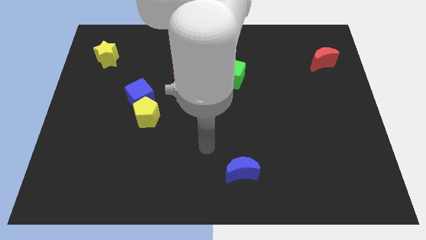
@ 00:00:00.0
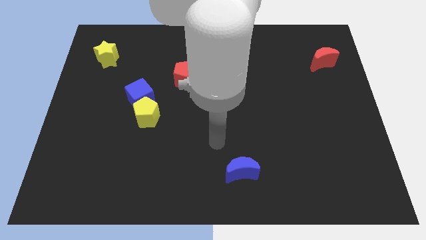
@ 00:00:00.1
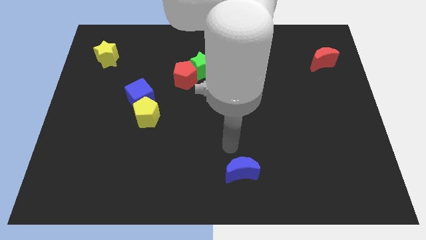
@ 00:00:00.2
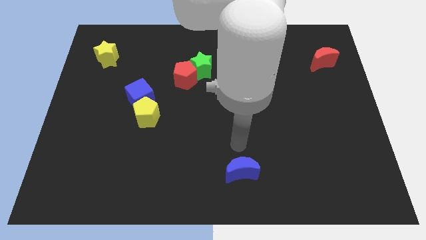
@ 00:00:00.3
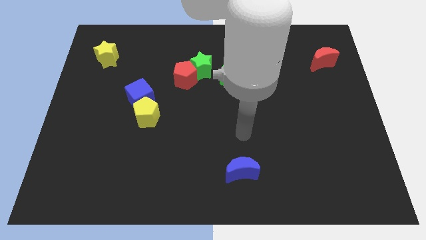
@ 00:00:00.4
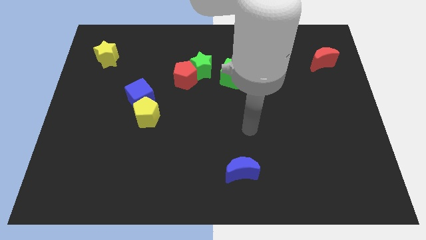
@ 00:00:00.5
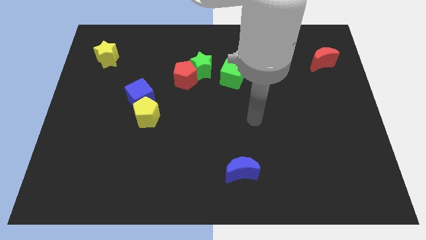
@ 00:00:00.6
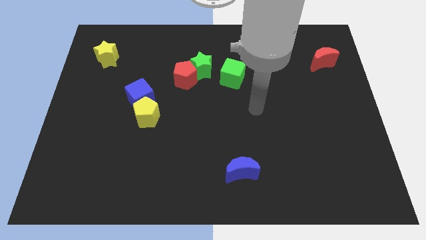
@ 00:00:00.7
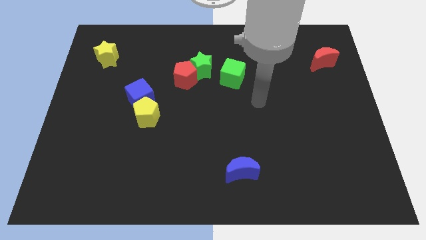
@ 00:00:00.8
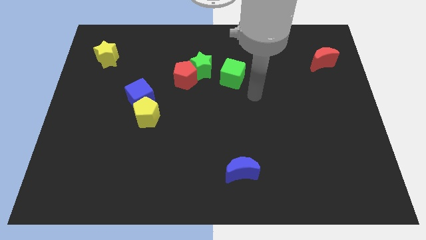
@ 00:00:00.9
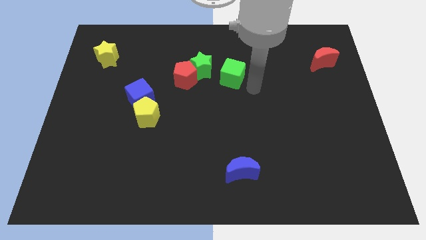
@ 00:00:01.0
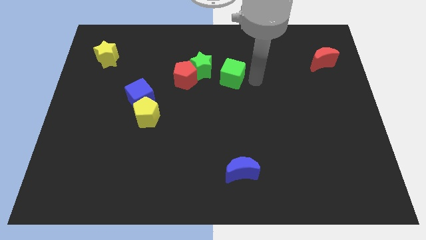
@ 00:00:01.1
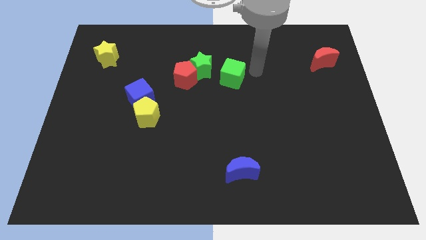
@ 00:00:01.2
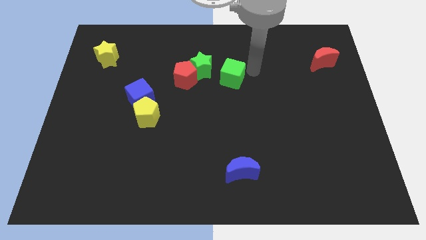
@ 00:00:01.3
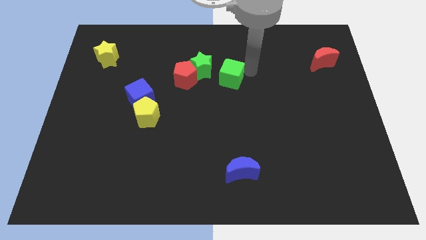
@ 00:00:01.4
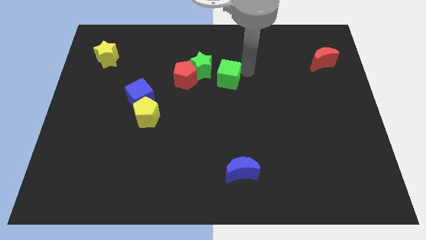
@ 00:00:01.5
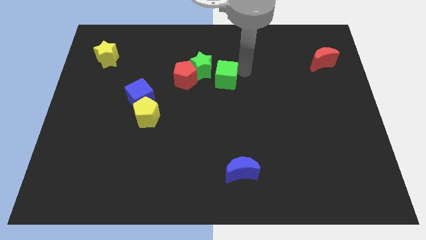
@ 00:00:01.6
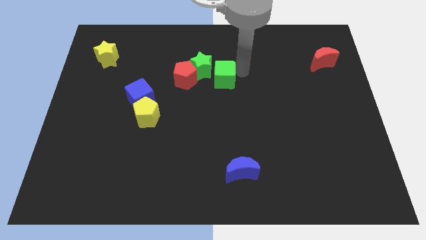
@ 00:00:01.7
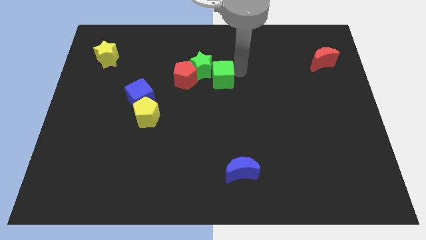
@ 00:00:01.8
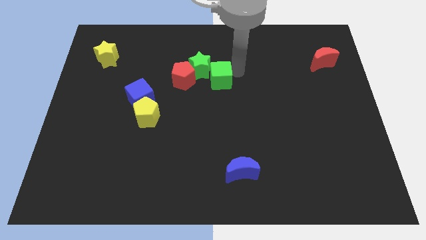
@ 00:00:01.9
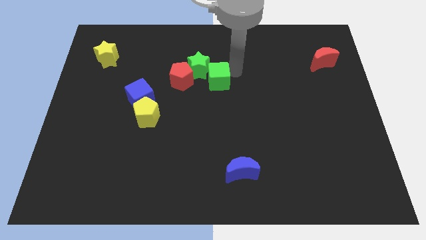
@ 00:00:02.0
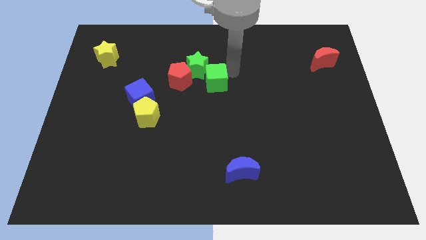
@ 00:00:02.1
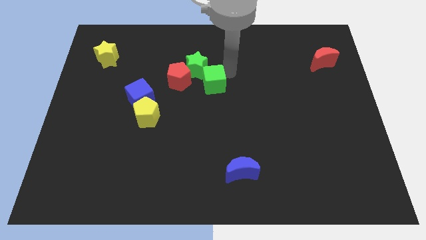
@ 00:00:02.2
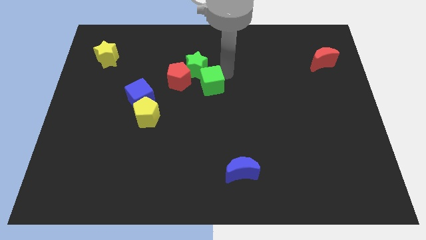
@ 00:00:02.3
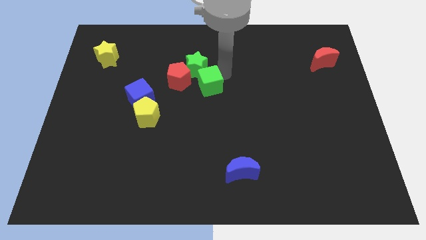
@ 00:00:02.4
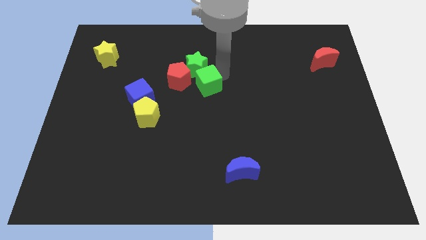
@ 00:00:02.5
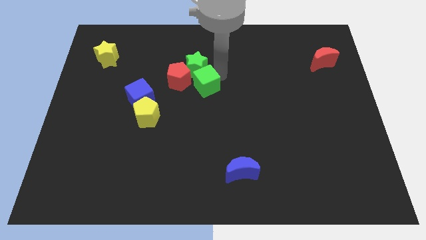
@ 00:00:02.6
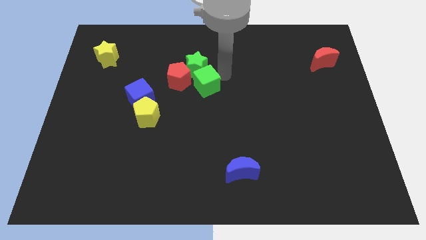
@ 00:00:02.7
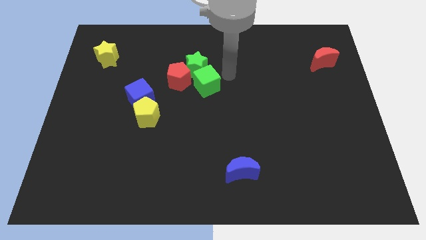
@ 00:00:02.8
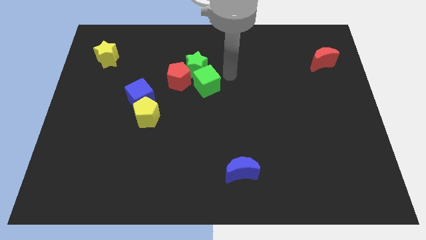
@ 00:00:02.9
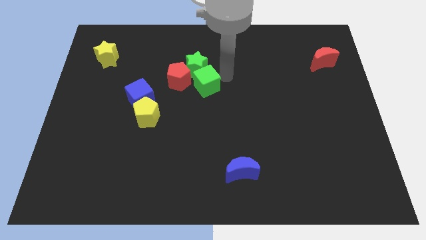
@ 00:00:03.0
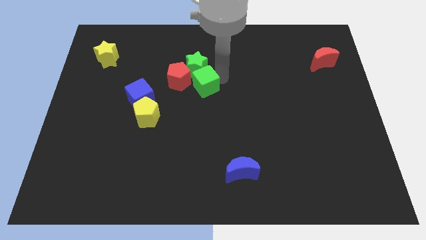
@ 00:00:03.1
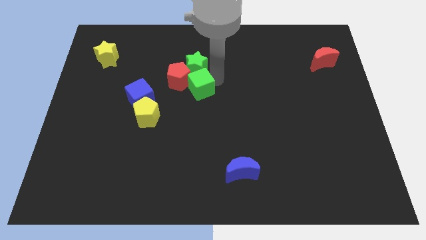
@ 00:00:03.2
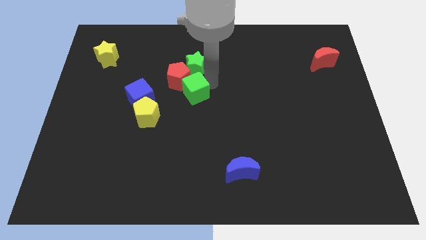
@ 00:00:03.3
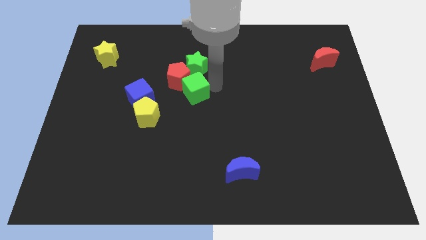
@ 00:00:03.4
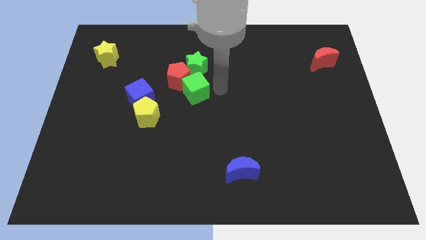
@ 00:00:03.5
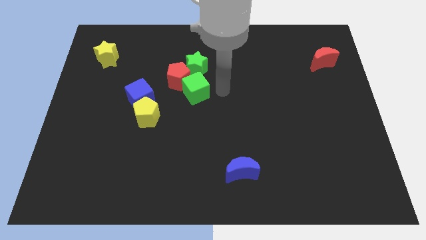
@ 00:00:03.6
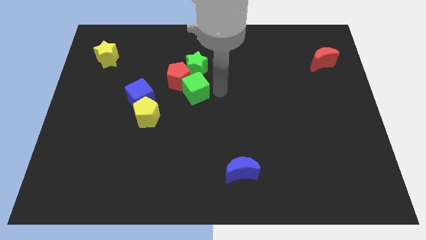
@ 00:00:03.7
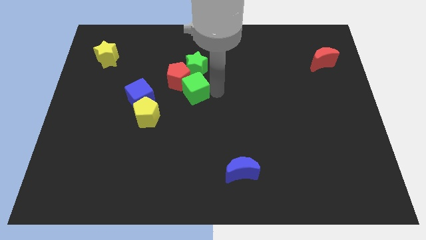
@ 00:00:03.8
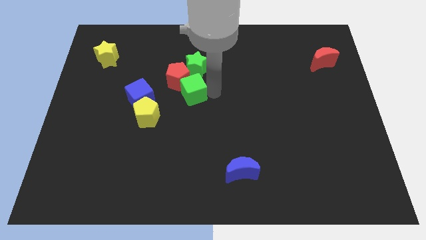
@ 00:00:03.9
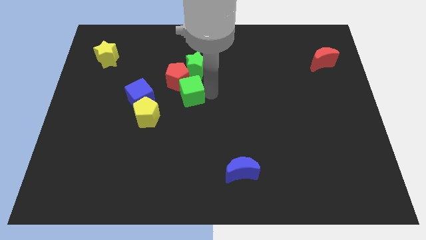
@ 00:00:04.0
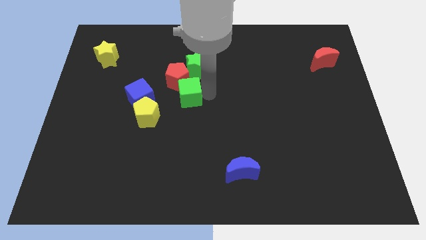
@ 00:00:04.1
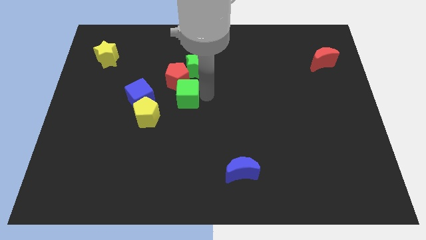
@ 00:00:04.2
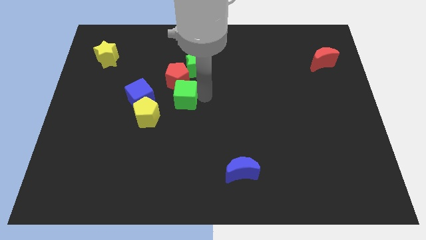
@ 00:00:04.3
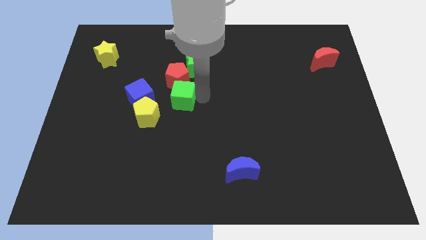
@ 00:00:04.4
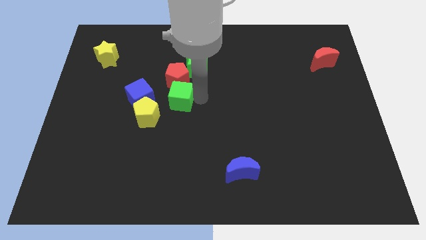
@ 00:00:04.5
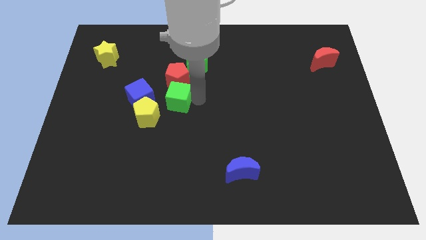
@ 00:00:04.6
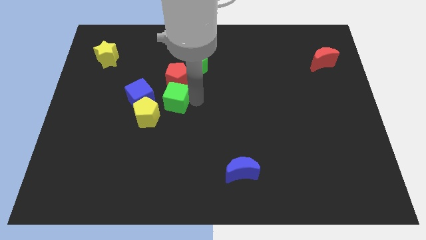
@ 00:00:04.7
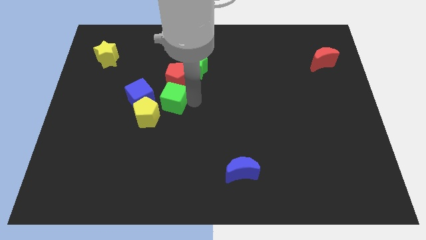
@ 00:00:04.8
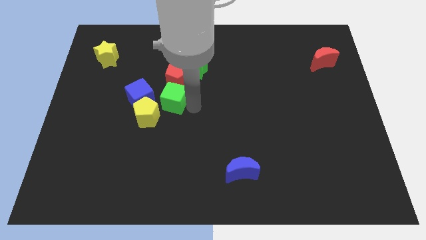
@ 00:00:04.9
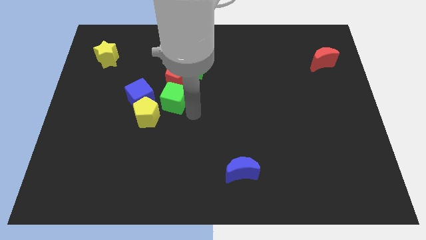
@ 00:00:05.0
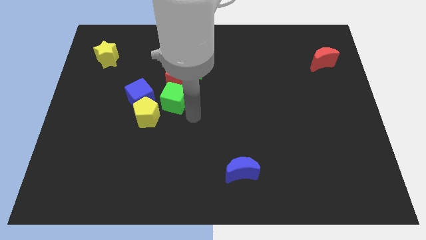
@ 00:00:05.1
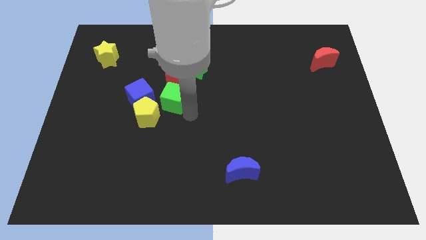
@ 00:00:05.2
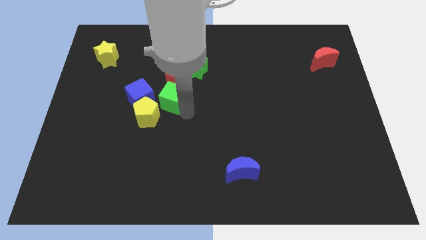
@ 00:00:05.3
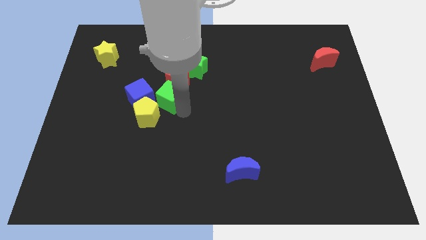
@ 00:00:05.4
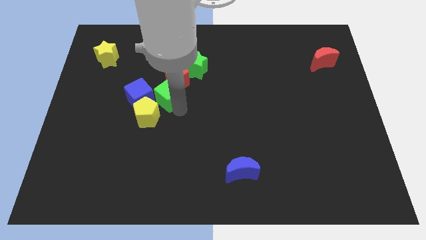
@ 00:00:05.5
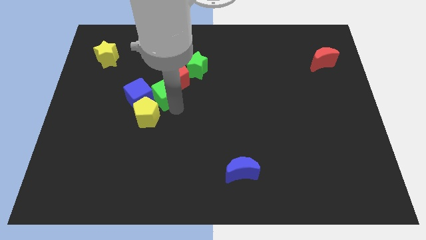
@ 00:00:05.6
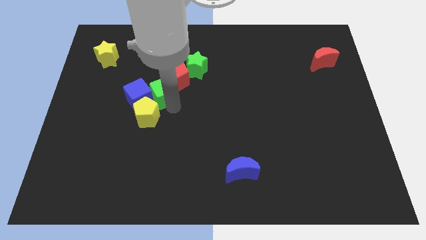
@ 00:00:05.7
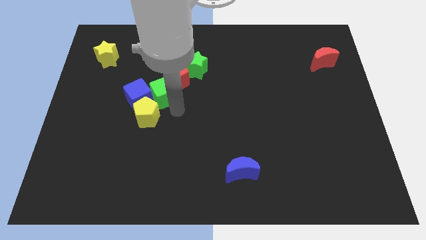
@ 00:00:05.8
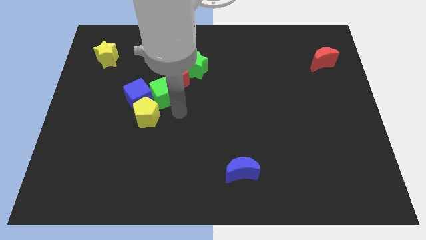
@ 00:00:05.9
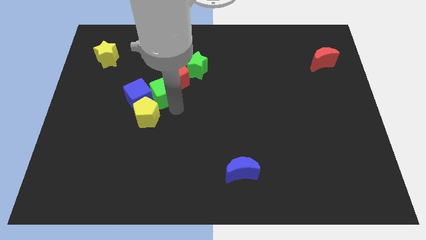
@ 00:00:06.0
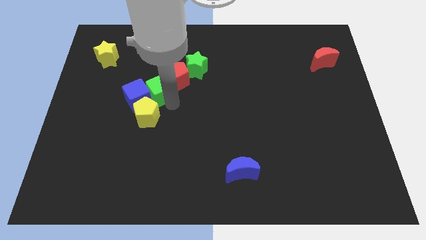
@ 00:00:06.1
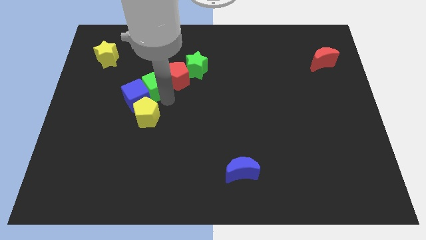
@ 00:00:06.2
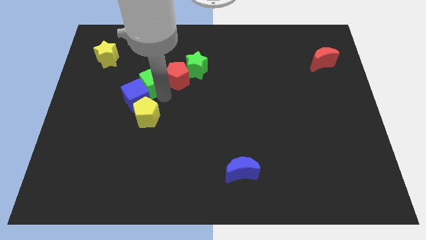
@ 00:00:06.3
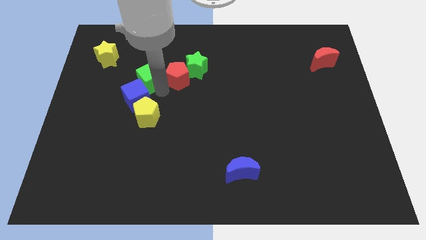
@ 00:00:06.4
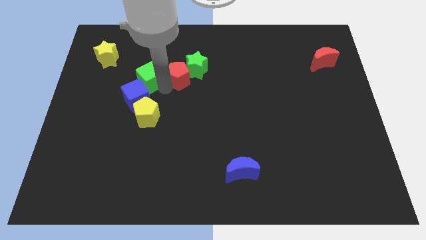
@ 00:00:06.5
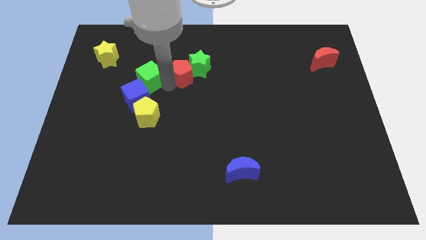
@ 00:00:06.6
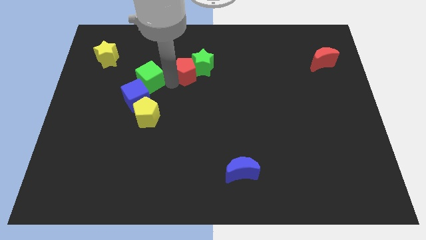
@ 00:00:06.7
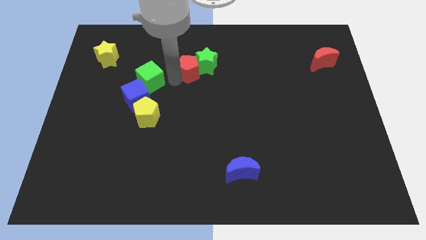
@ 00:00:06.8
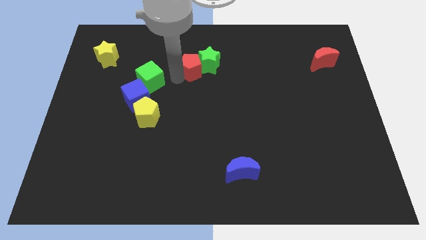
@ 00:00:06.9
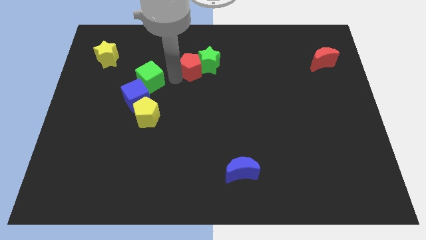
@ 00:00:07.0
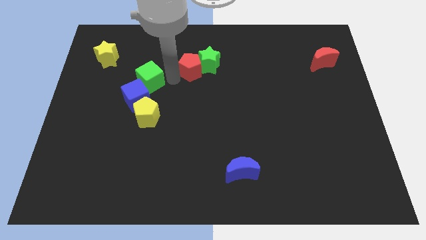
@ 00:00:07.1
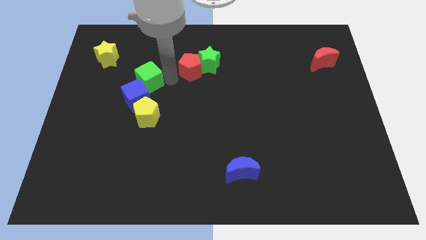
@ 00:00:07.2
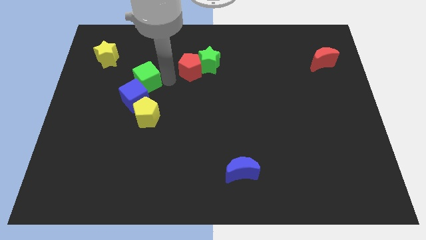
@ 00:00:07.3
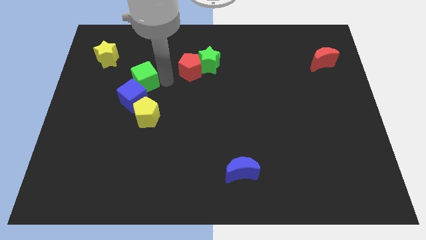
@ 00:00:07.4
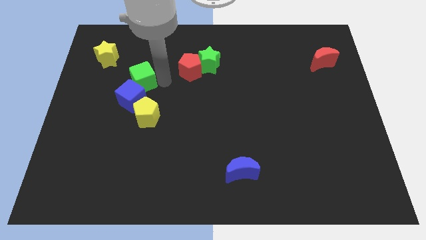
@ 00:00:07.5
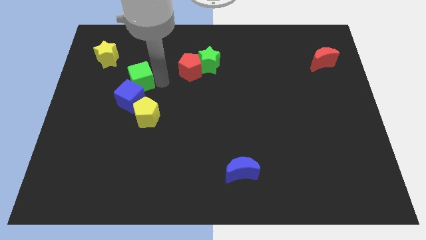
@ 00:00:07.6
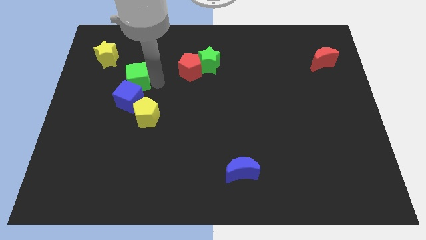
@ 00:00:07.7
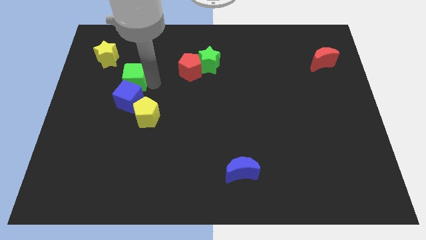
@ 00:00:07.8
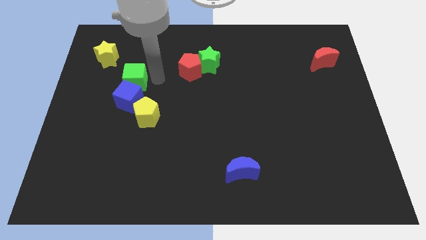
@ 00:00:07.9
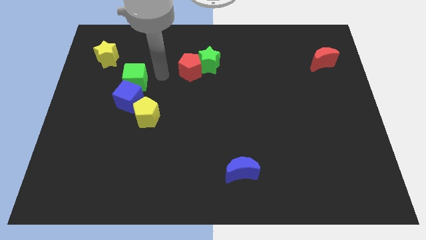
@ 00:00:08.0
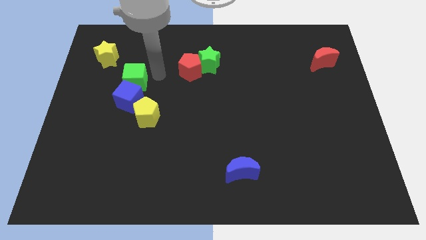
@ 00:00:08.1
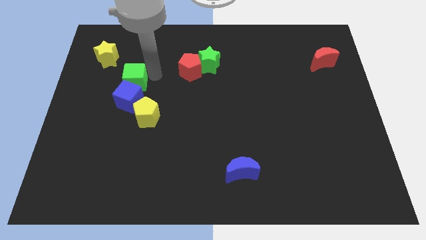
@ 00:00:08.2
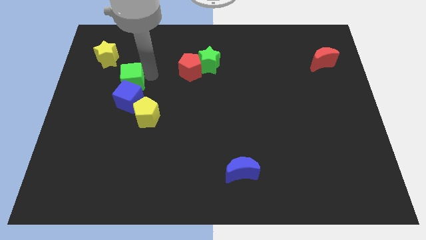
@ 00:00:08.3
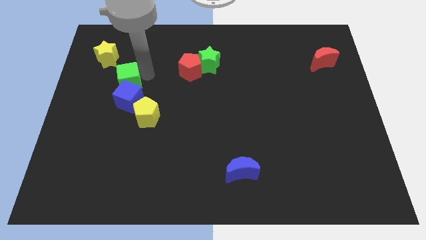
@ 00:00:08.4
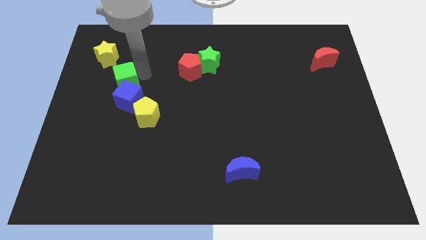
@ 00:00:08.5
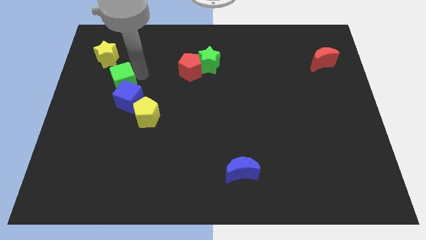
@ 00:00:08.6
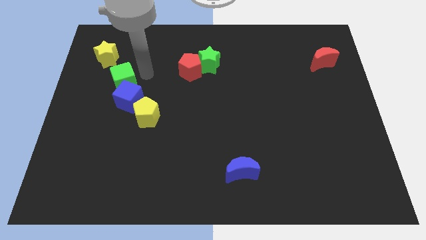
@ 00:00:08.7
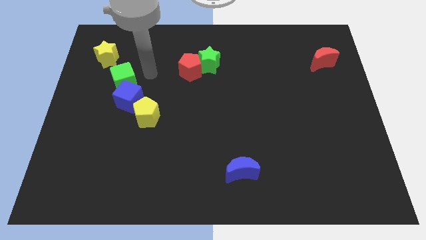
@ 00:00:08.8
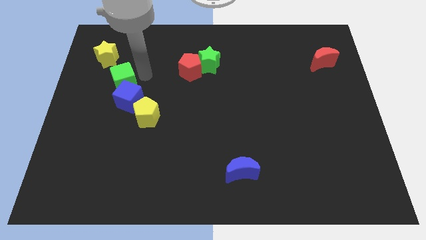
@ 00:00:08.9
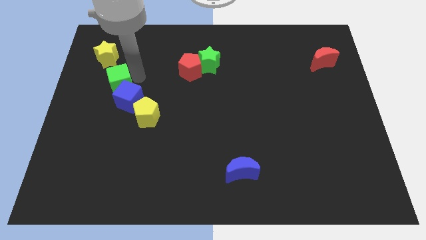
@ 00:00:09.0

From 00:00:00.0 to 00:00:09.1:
slide the green cube to the bottom side of the yellow star
